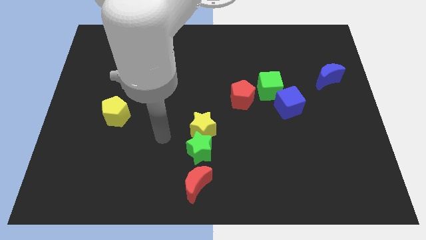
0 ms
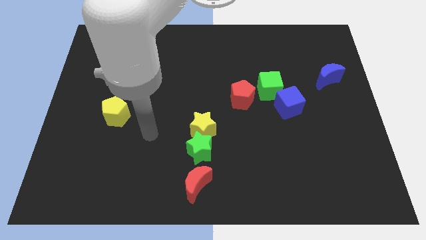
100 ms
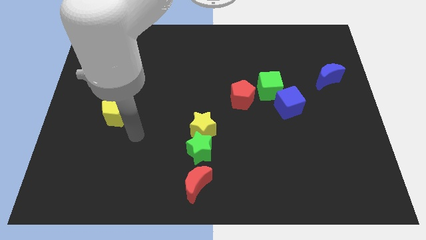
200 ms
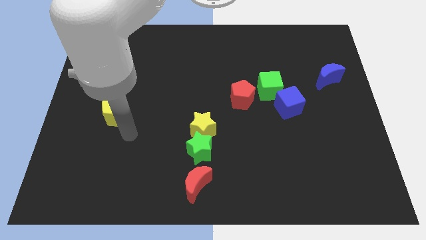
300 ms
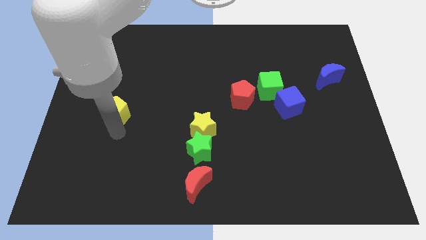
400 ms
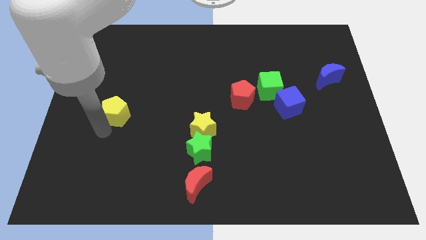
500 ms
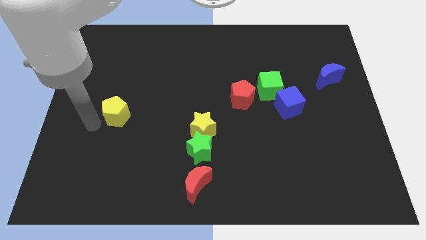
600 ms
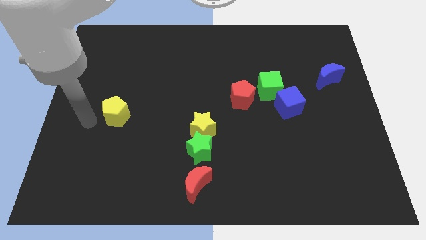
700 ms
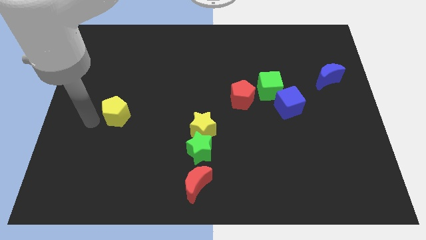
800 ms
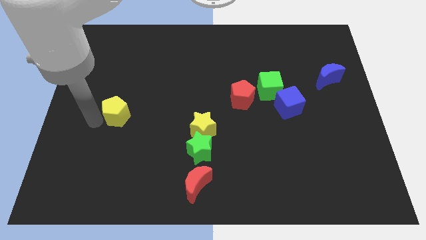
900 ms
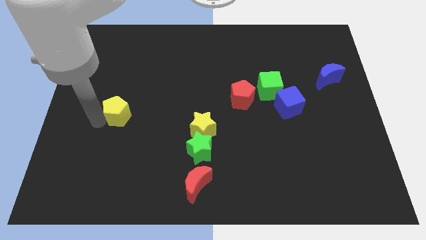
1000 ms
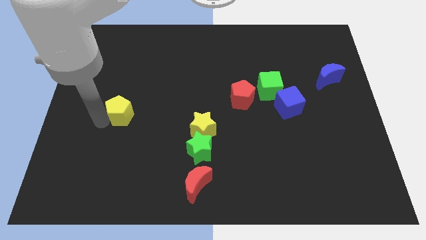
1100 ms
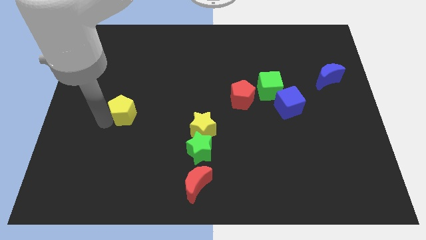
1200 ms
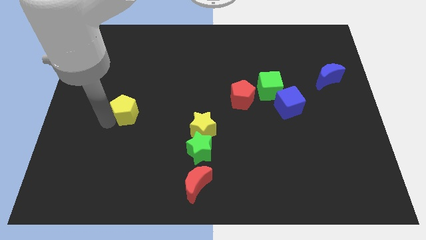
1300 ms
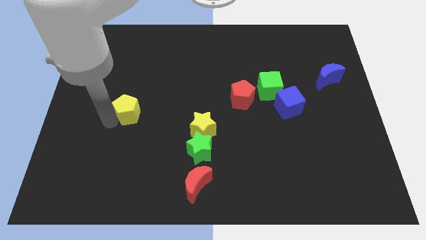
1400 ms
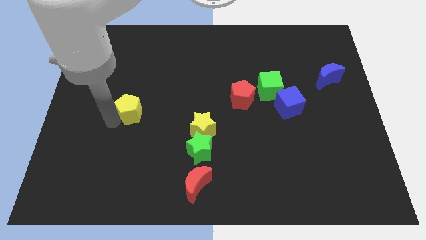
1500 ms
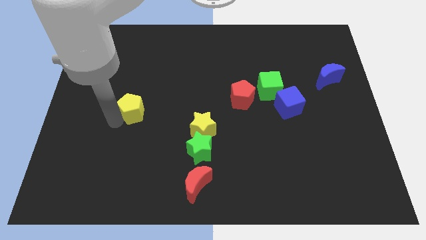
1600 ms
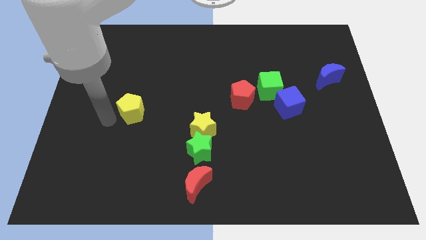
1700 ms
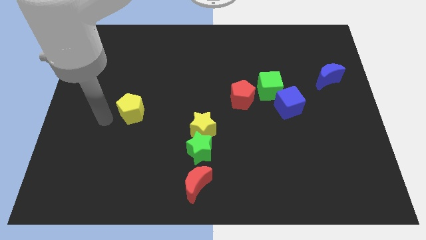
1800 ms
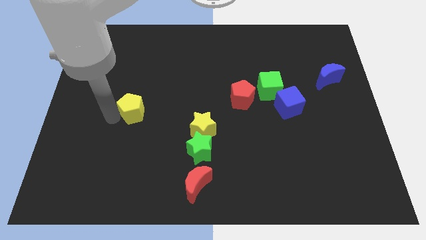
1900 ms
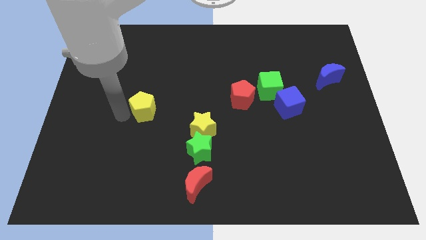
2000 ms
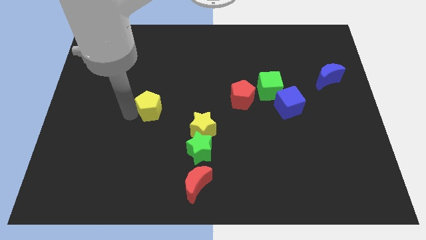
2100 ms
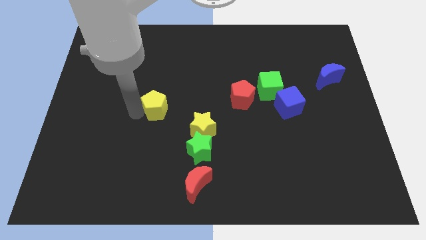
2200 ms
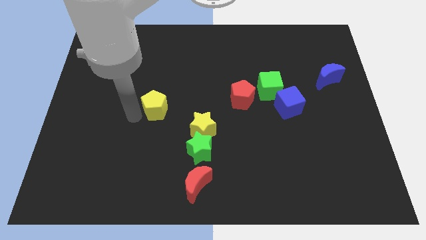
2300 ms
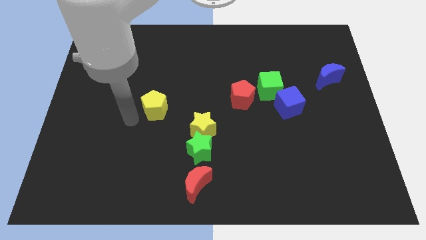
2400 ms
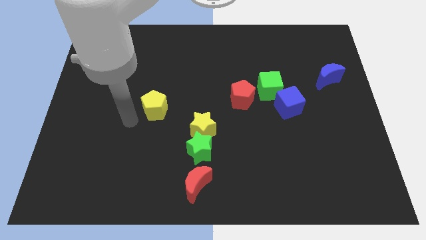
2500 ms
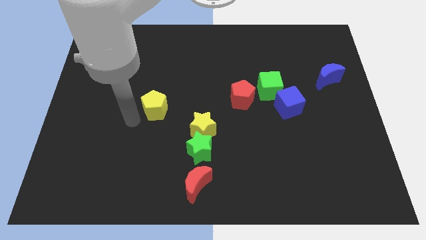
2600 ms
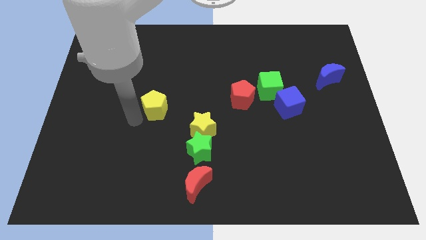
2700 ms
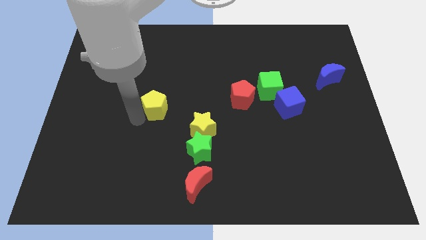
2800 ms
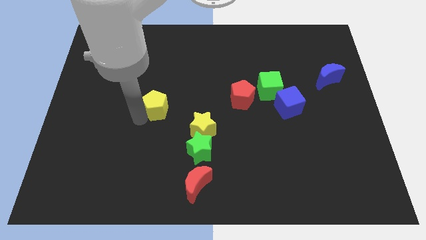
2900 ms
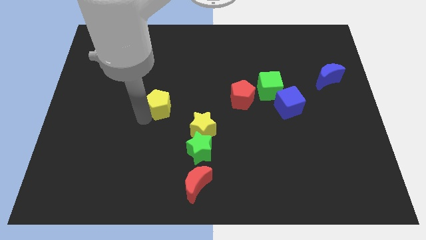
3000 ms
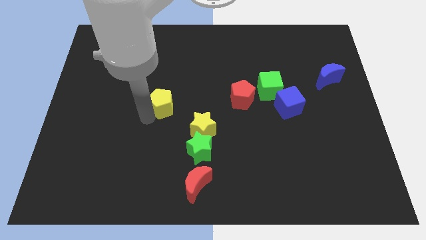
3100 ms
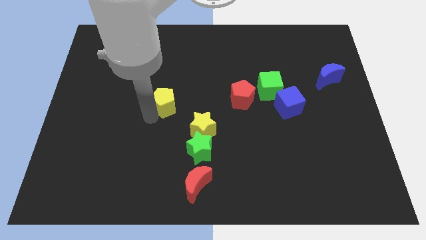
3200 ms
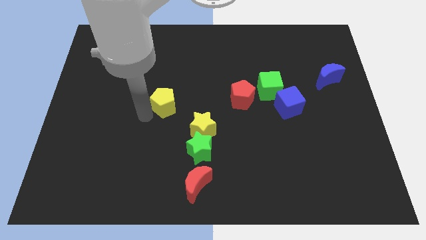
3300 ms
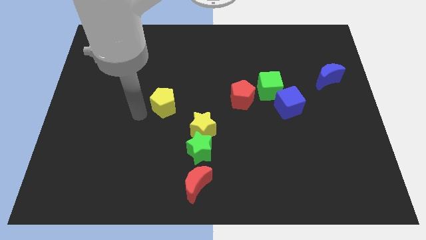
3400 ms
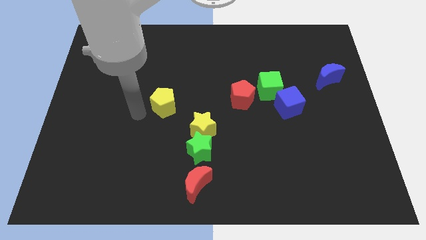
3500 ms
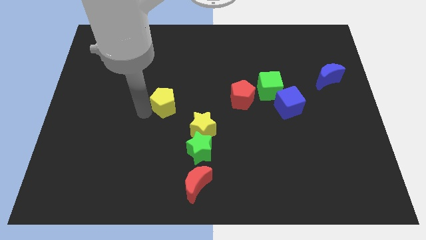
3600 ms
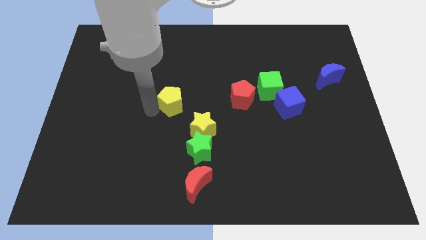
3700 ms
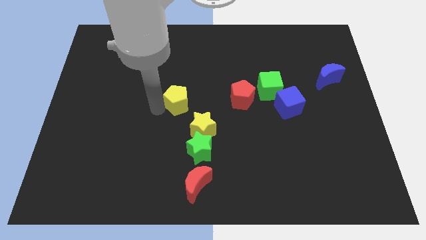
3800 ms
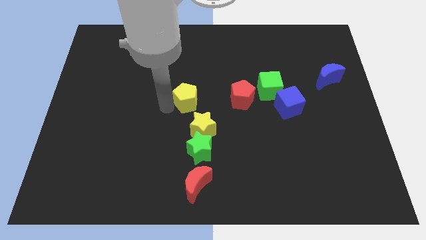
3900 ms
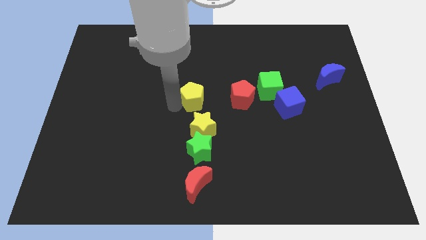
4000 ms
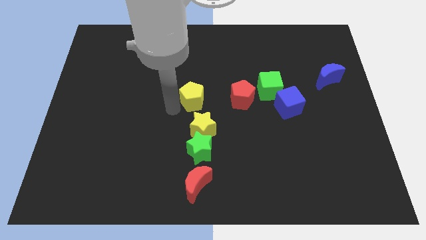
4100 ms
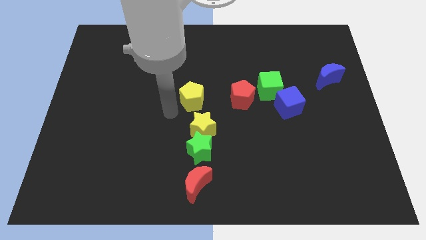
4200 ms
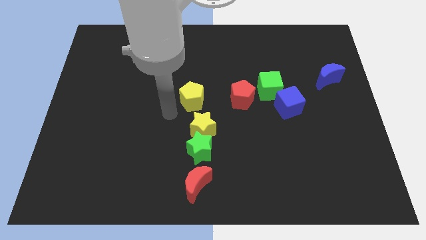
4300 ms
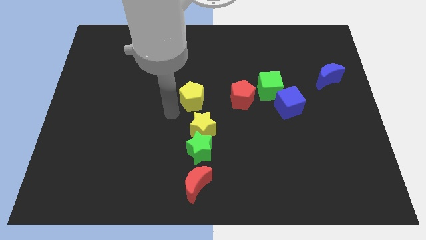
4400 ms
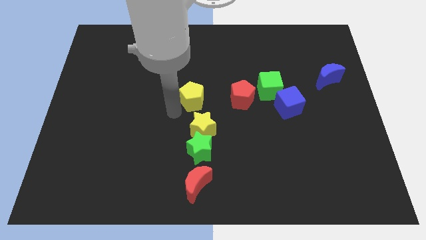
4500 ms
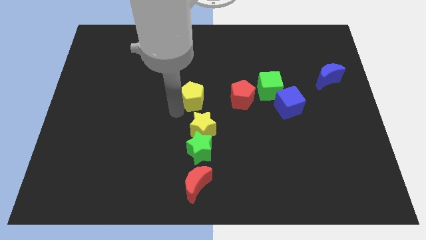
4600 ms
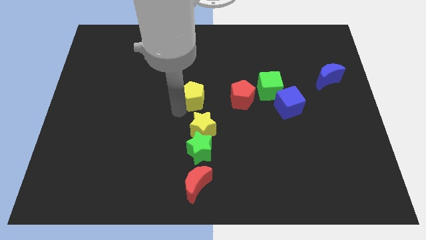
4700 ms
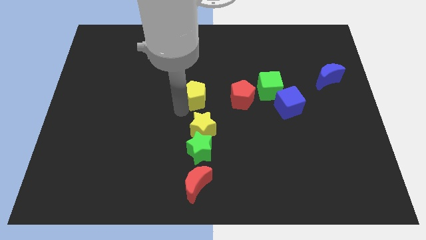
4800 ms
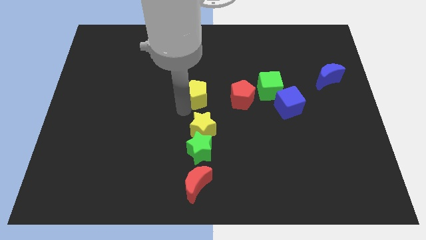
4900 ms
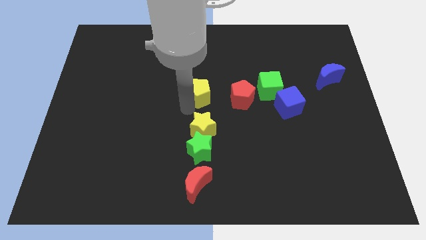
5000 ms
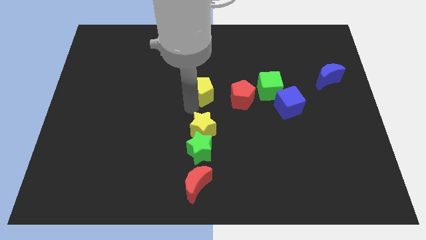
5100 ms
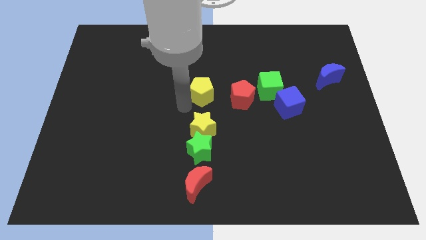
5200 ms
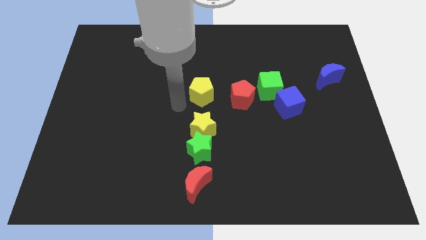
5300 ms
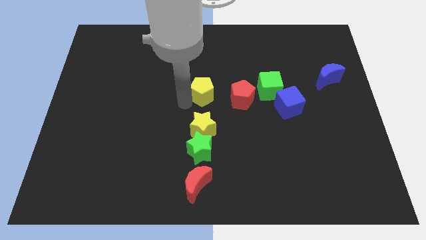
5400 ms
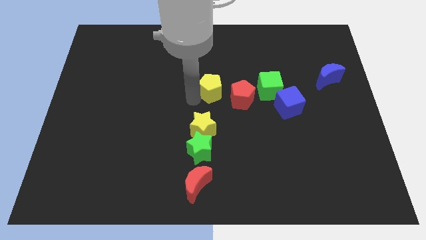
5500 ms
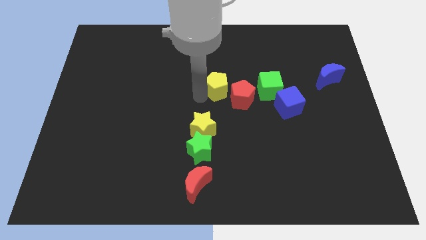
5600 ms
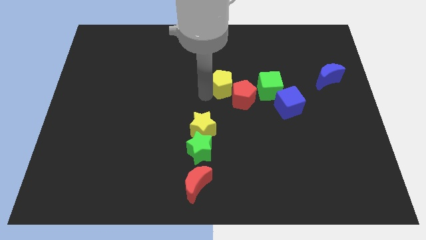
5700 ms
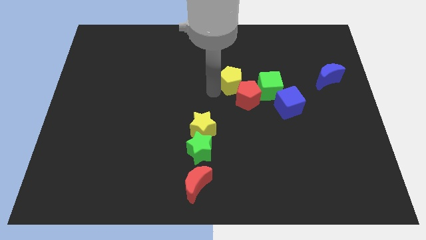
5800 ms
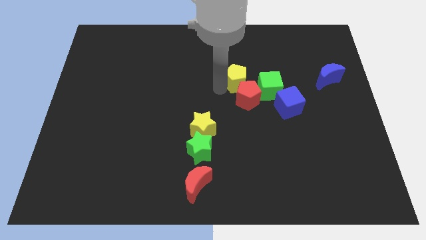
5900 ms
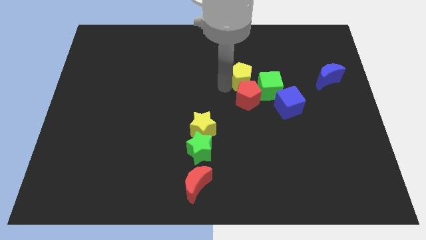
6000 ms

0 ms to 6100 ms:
push the yellow pentagon to the top right side of the red pentagon
